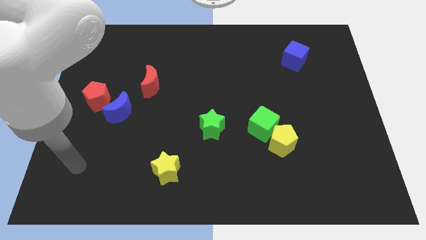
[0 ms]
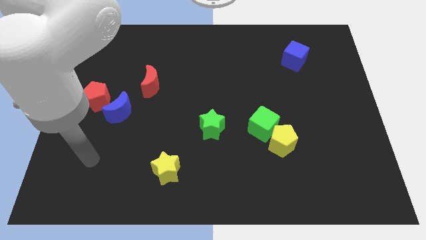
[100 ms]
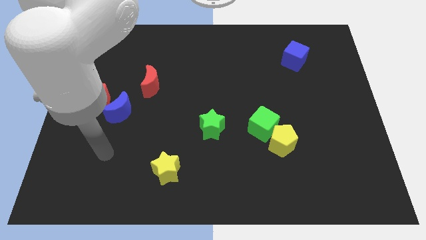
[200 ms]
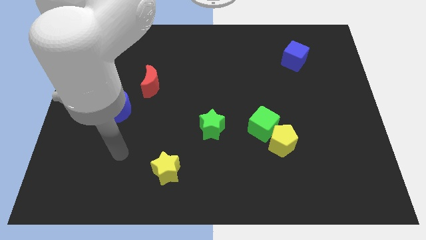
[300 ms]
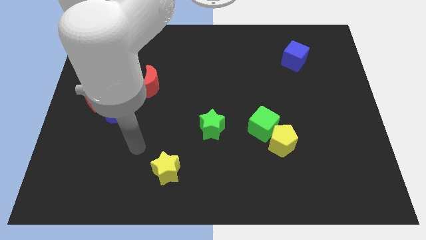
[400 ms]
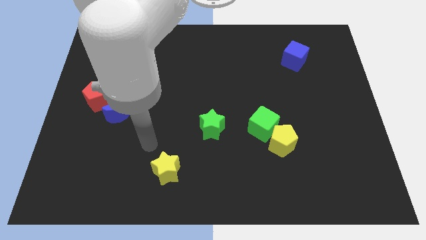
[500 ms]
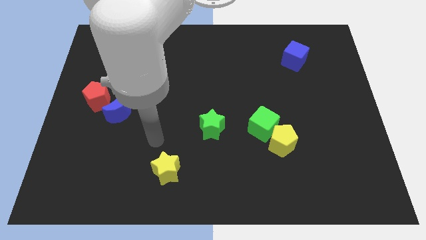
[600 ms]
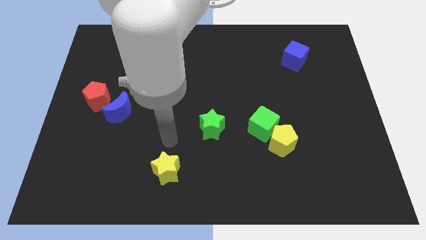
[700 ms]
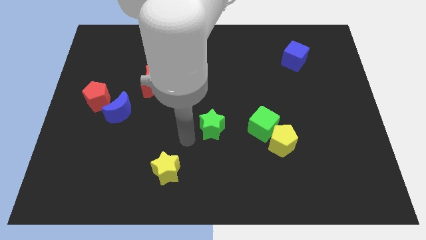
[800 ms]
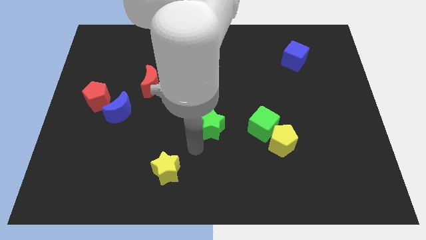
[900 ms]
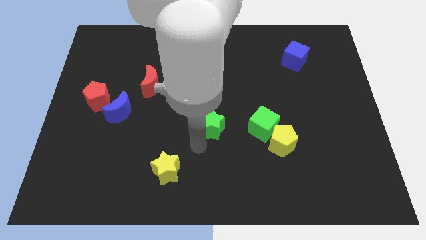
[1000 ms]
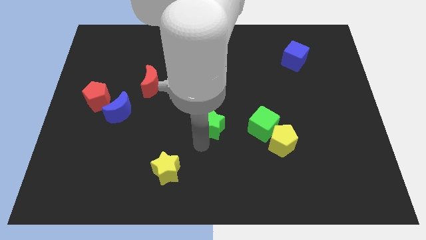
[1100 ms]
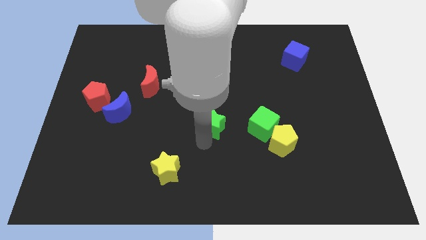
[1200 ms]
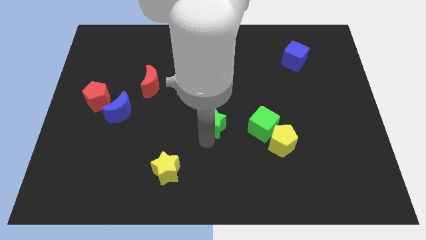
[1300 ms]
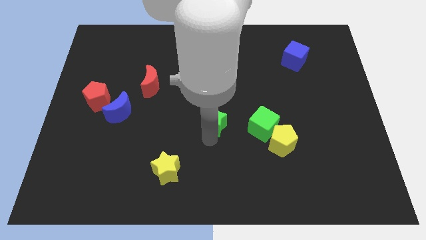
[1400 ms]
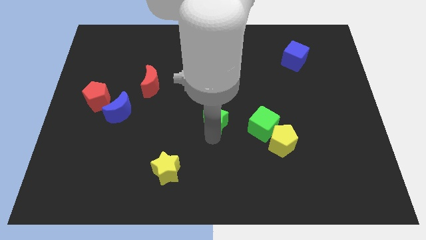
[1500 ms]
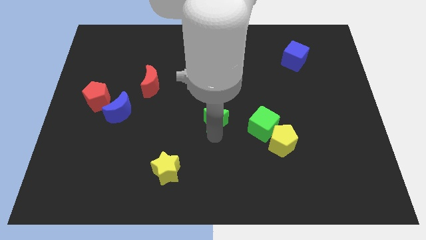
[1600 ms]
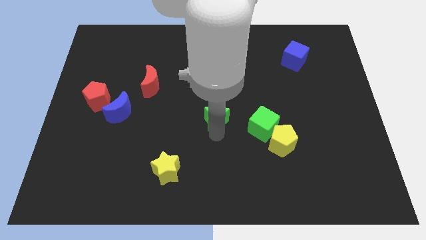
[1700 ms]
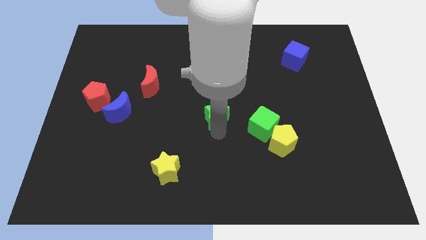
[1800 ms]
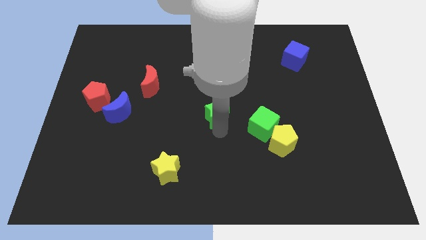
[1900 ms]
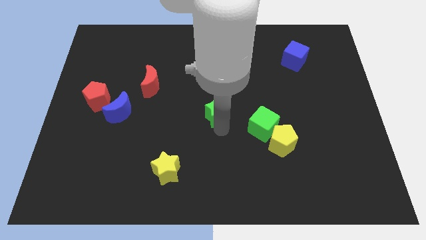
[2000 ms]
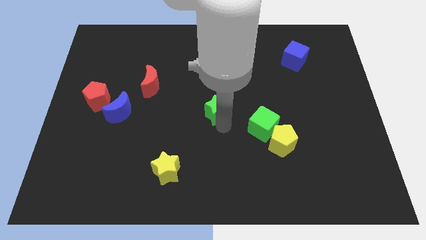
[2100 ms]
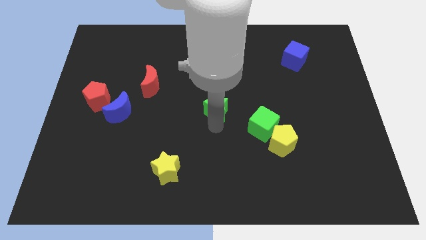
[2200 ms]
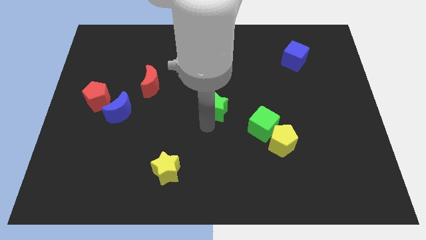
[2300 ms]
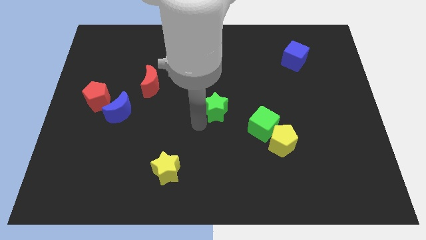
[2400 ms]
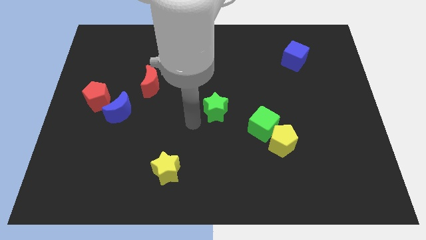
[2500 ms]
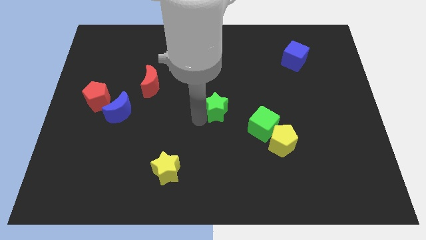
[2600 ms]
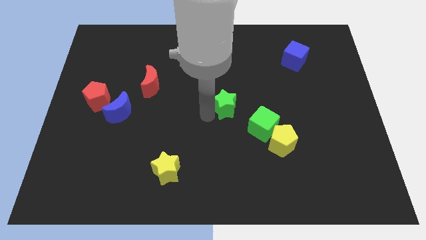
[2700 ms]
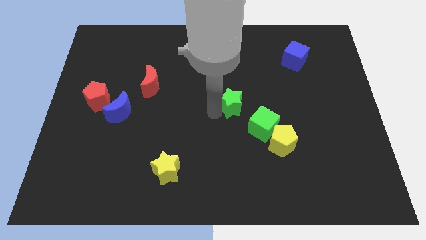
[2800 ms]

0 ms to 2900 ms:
push the green star diagonally upwards and right slightly

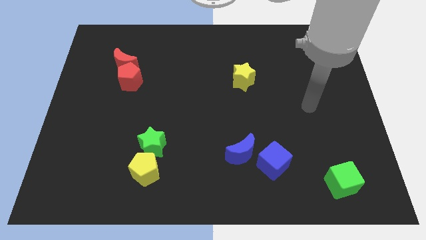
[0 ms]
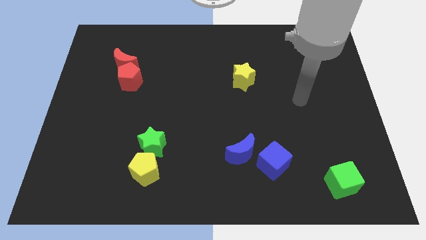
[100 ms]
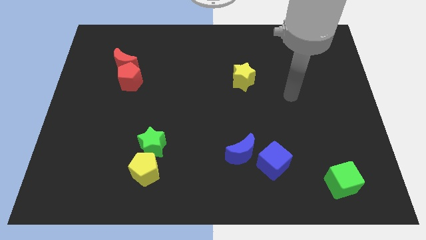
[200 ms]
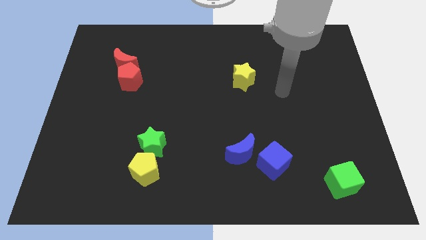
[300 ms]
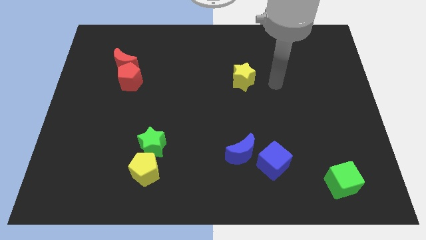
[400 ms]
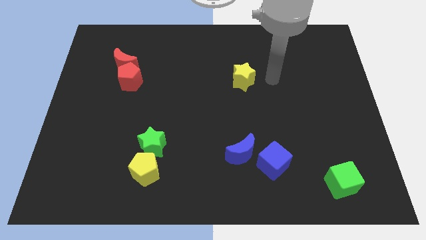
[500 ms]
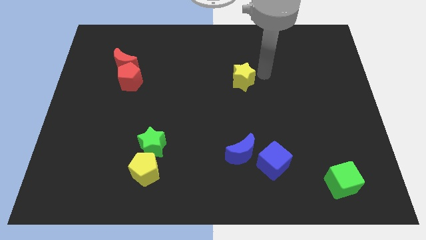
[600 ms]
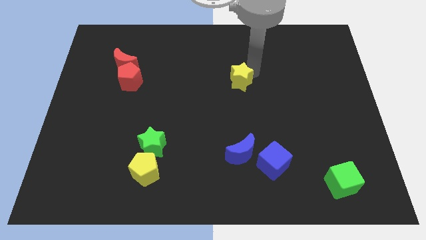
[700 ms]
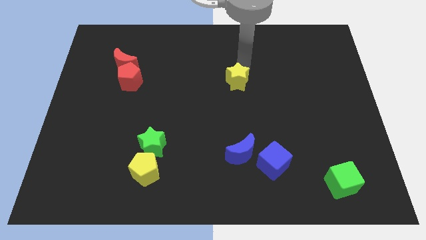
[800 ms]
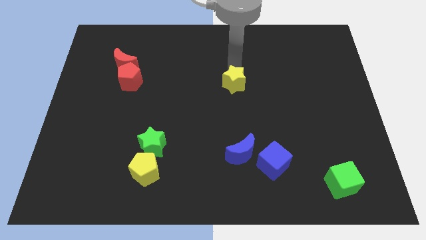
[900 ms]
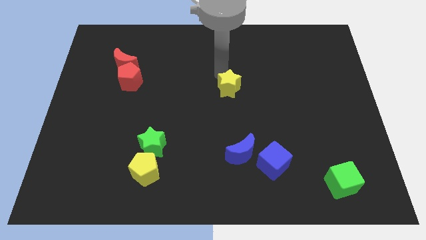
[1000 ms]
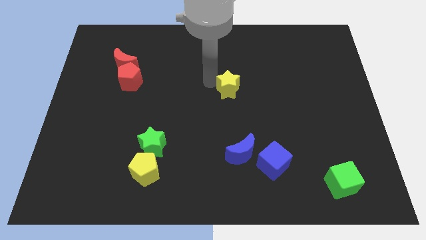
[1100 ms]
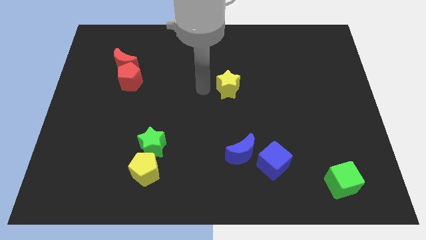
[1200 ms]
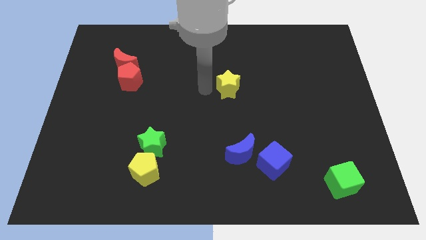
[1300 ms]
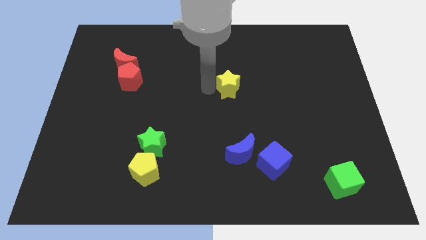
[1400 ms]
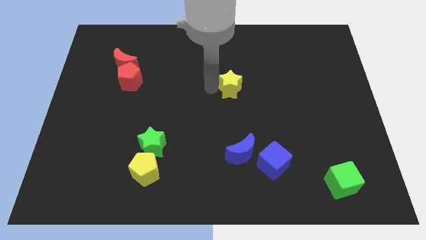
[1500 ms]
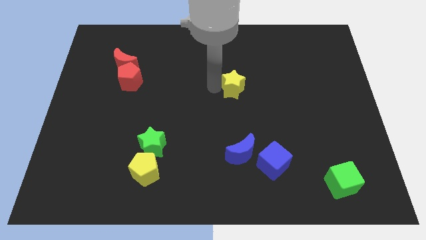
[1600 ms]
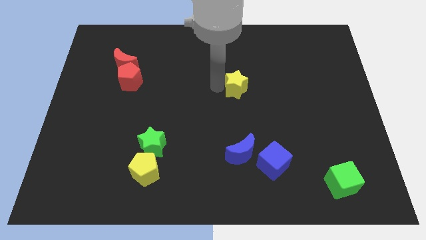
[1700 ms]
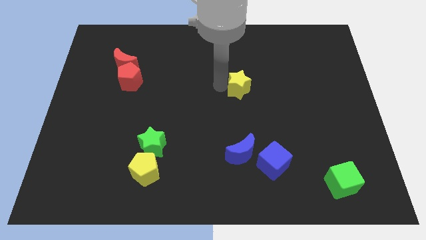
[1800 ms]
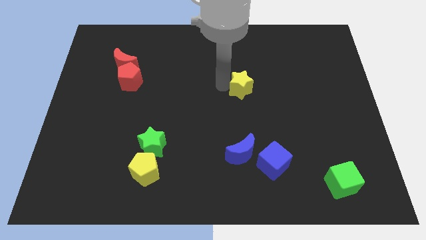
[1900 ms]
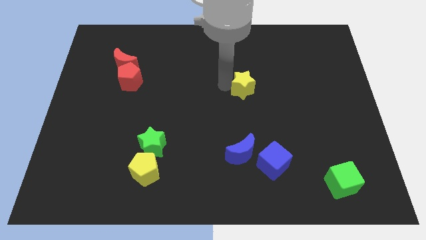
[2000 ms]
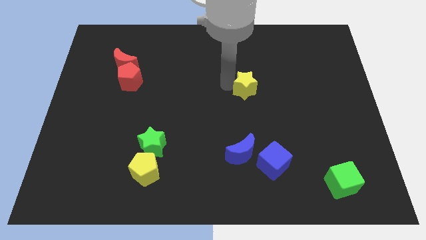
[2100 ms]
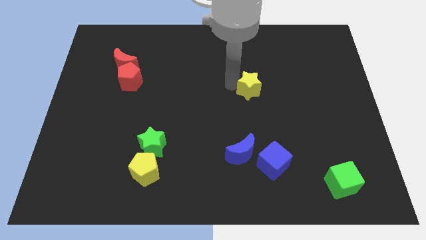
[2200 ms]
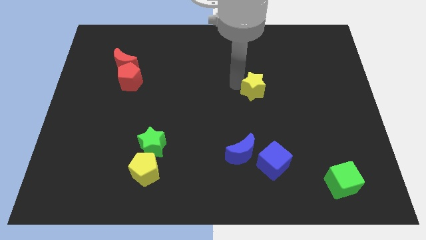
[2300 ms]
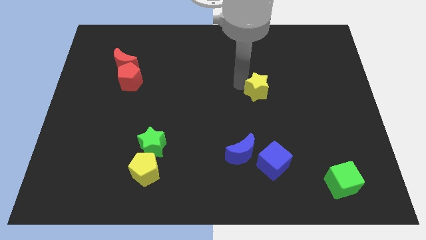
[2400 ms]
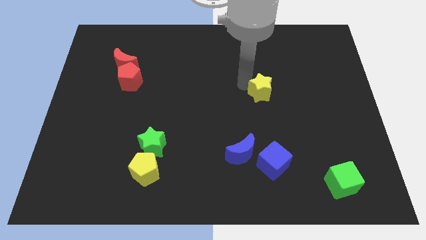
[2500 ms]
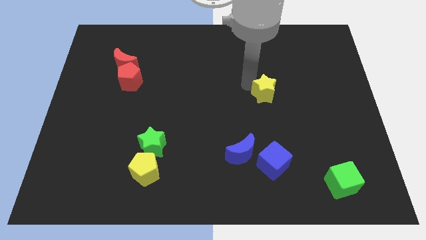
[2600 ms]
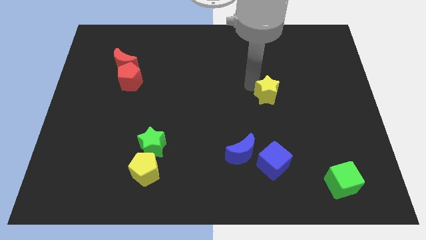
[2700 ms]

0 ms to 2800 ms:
move the yellow star a little bit downwards and right

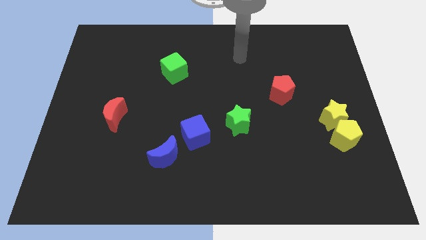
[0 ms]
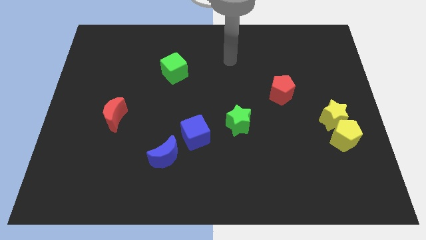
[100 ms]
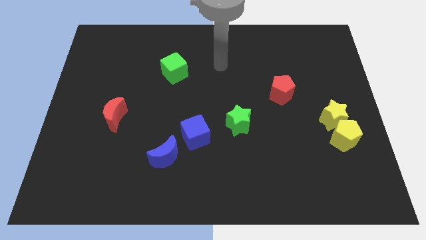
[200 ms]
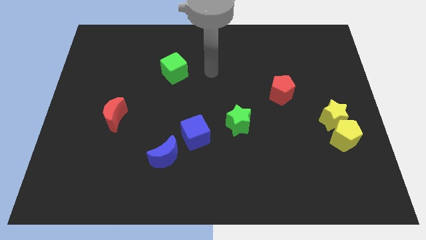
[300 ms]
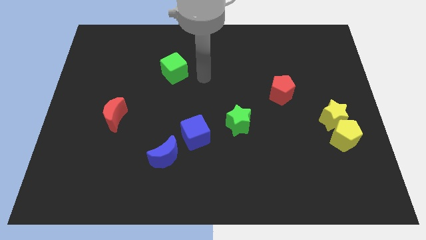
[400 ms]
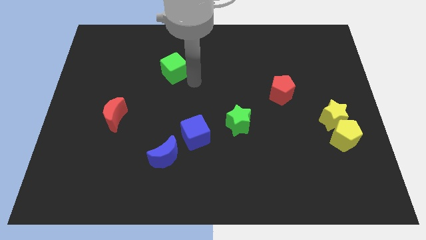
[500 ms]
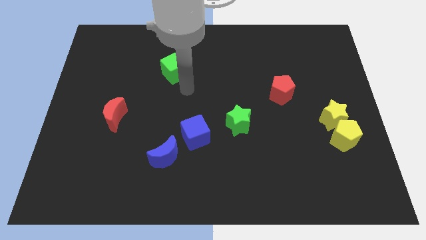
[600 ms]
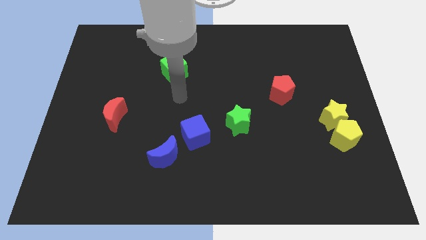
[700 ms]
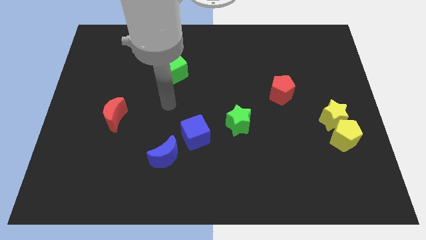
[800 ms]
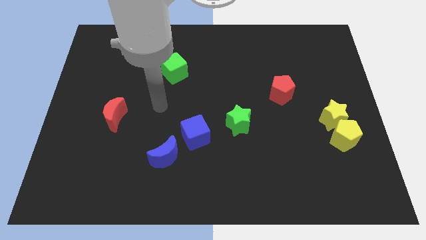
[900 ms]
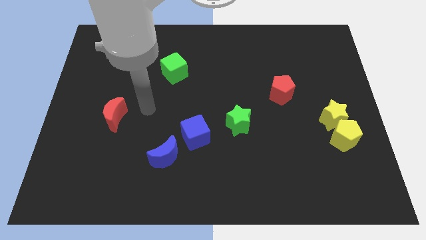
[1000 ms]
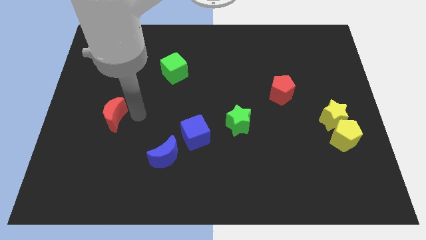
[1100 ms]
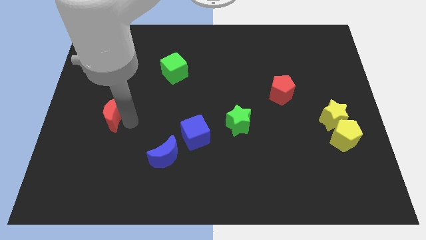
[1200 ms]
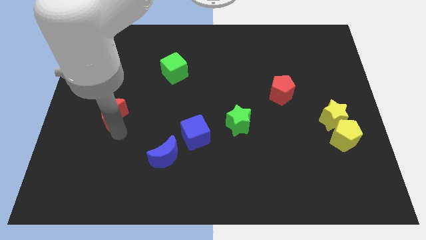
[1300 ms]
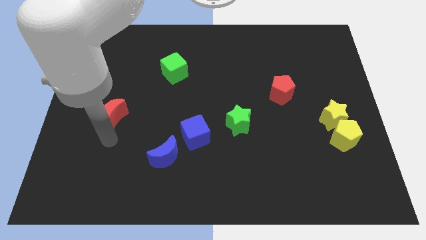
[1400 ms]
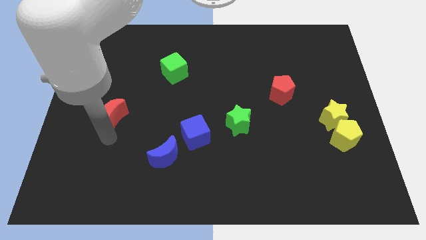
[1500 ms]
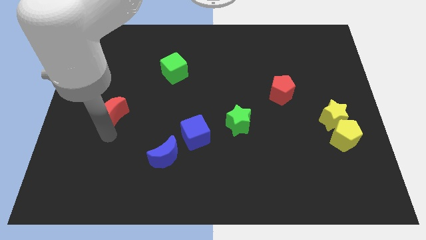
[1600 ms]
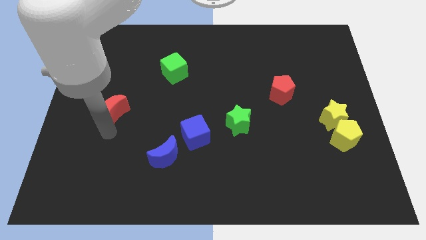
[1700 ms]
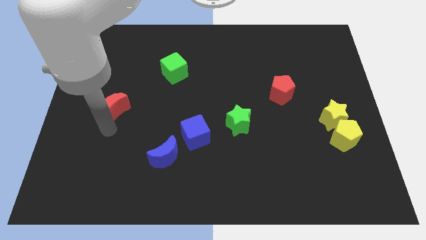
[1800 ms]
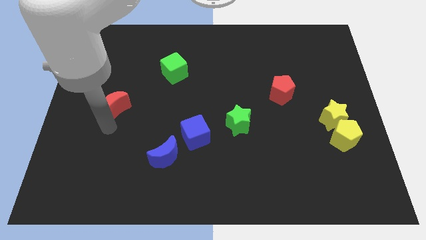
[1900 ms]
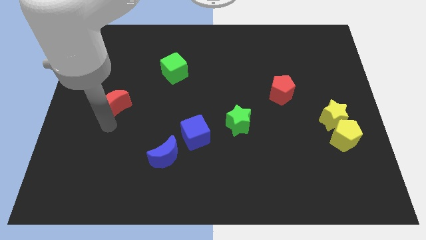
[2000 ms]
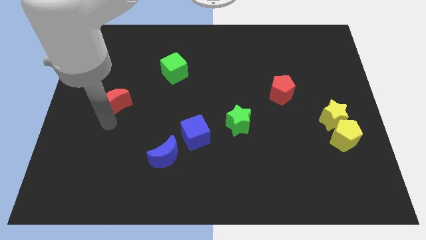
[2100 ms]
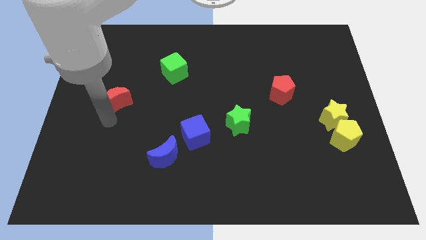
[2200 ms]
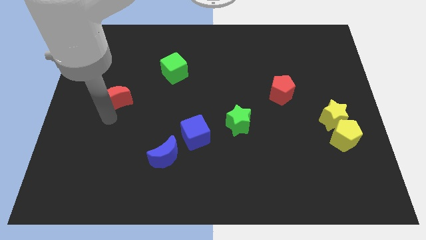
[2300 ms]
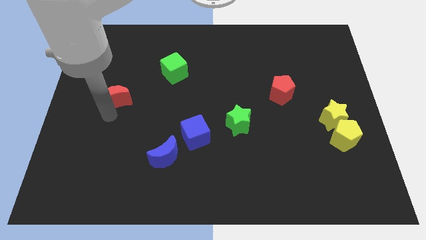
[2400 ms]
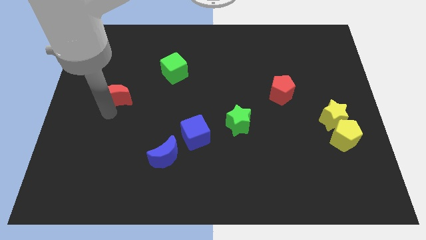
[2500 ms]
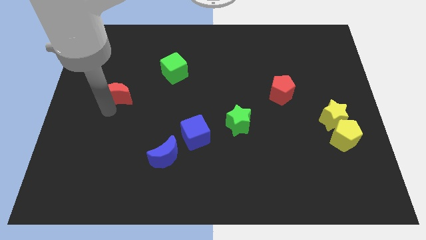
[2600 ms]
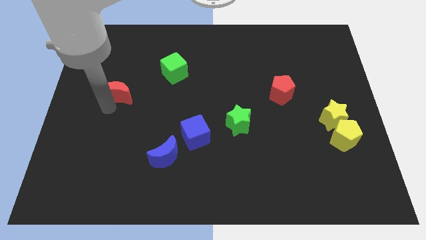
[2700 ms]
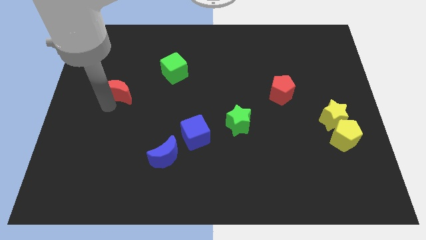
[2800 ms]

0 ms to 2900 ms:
move the red moon somewhat upwards
